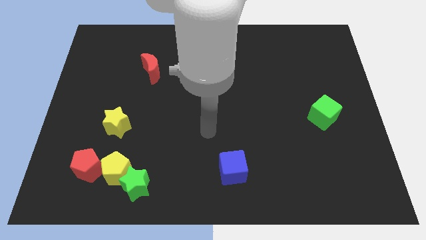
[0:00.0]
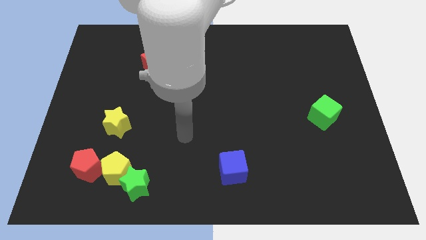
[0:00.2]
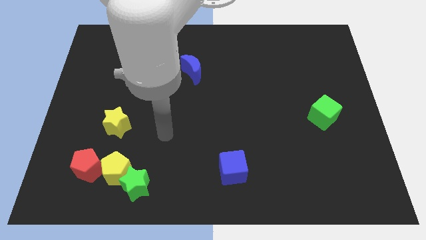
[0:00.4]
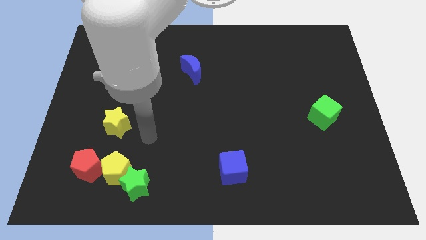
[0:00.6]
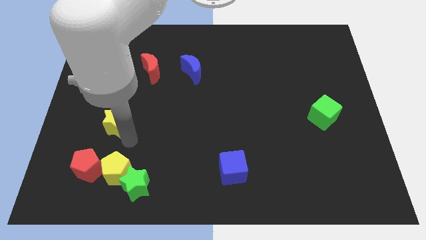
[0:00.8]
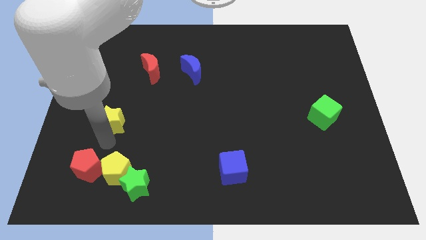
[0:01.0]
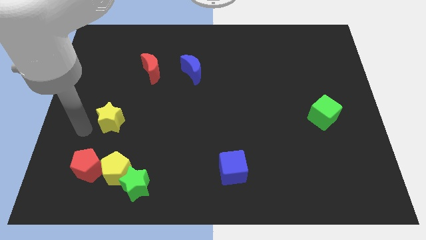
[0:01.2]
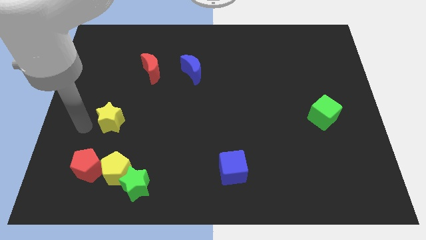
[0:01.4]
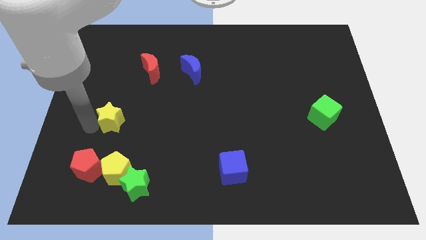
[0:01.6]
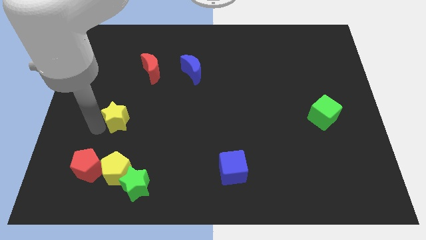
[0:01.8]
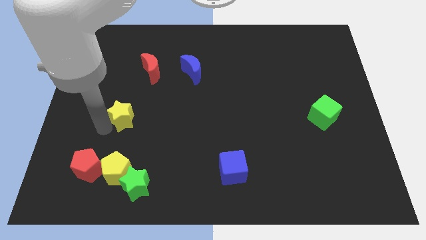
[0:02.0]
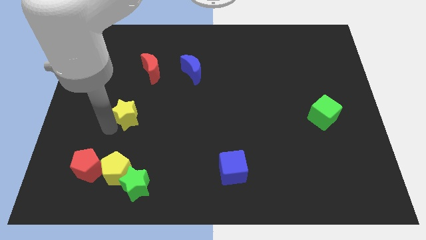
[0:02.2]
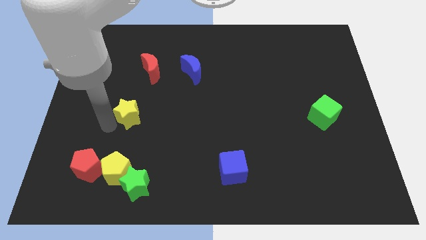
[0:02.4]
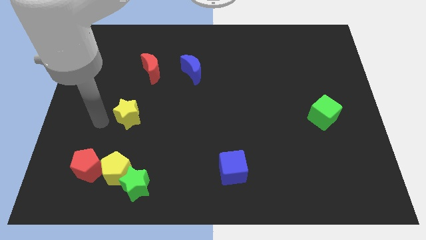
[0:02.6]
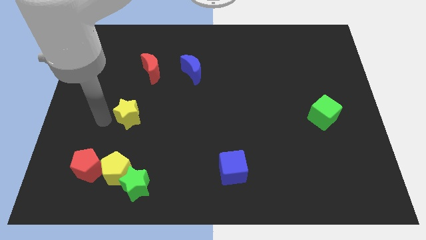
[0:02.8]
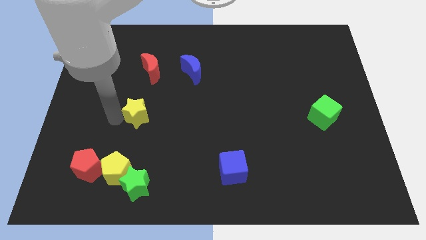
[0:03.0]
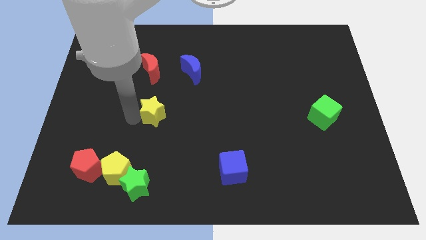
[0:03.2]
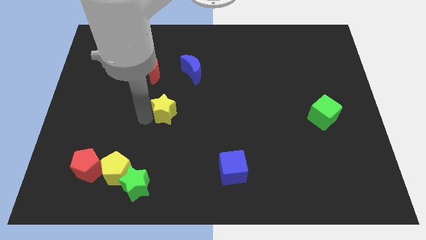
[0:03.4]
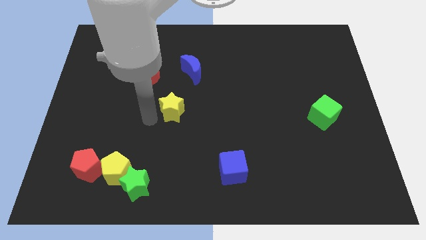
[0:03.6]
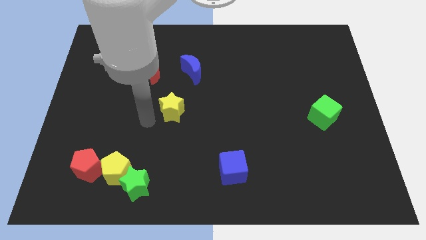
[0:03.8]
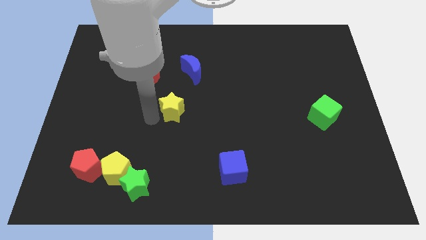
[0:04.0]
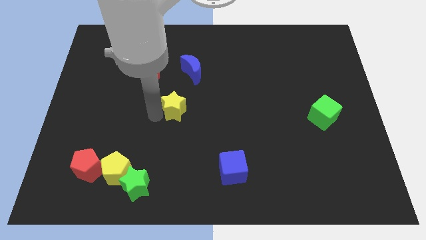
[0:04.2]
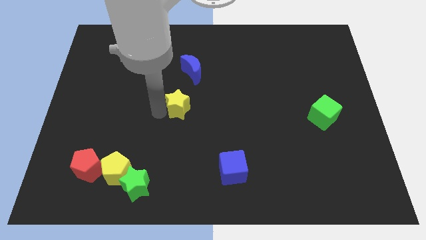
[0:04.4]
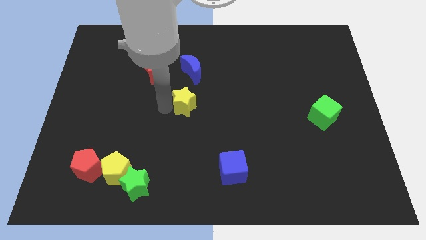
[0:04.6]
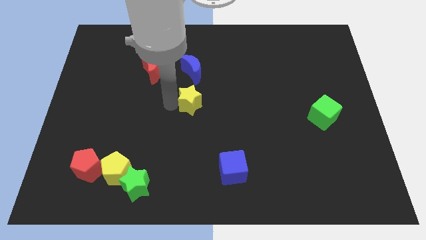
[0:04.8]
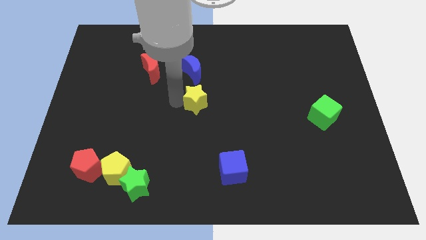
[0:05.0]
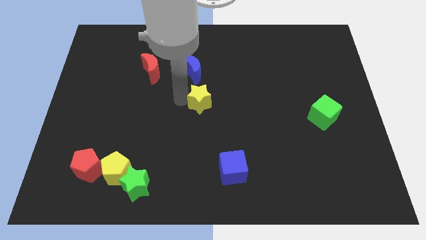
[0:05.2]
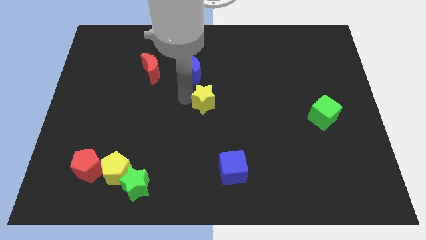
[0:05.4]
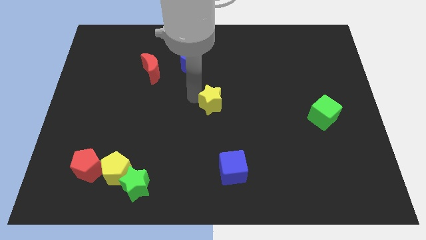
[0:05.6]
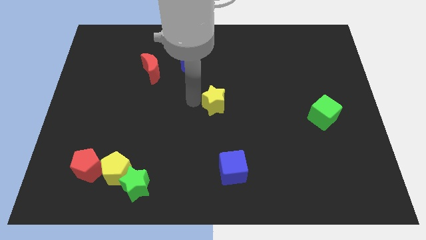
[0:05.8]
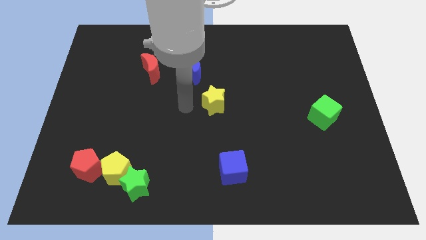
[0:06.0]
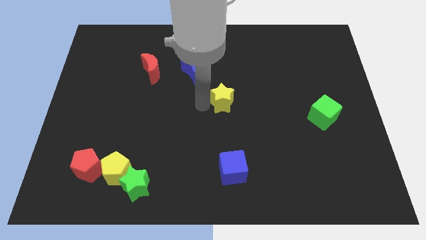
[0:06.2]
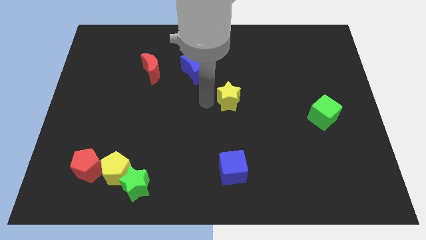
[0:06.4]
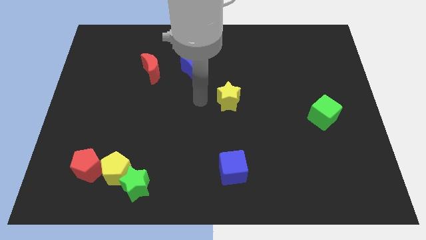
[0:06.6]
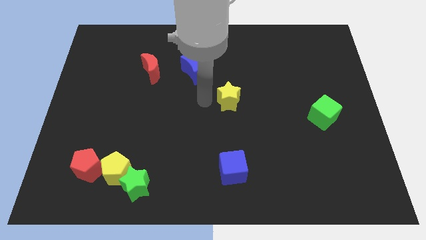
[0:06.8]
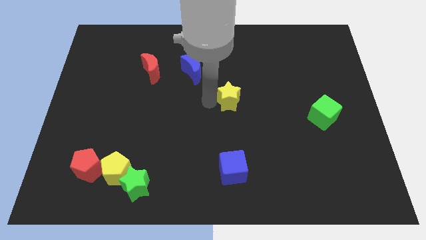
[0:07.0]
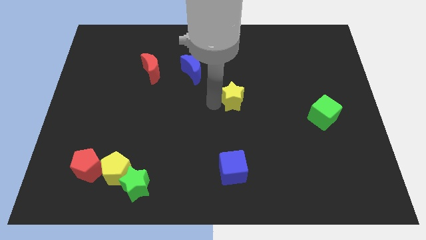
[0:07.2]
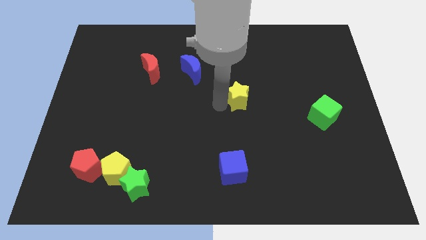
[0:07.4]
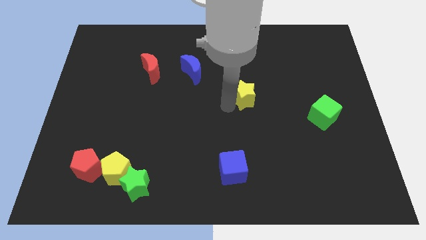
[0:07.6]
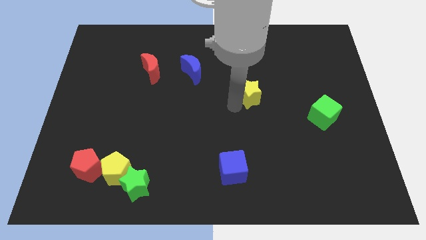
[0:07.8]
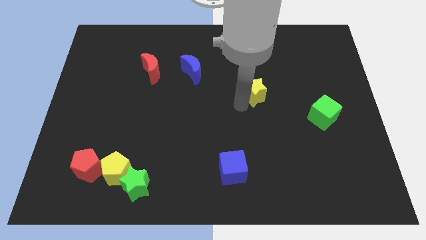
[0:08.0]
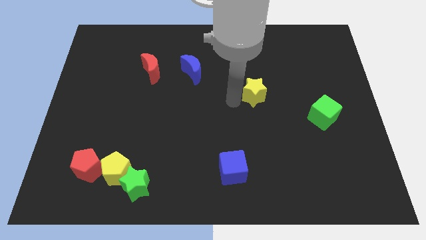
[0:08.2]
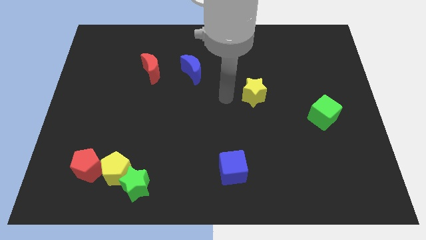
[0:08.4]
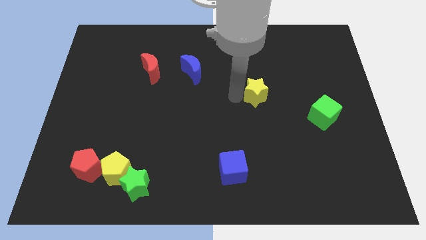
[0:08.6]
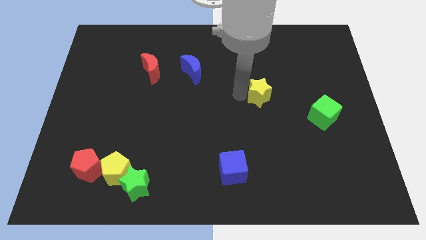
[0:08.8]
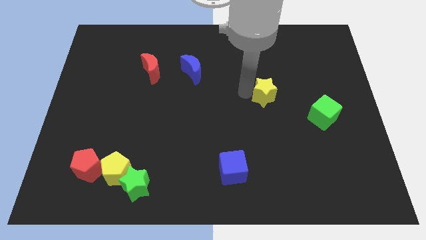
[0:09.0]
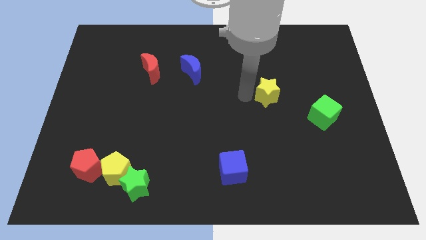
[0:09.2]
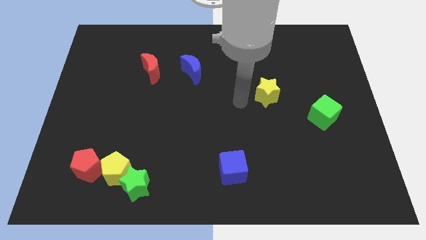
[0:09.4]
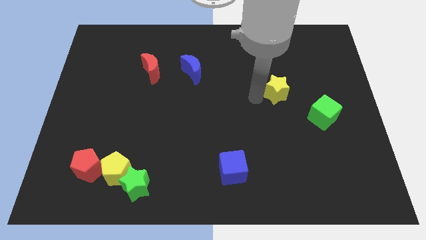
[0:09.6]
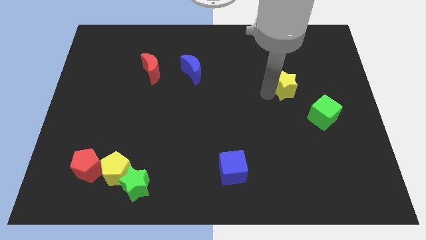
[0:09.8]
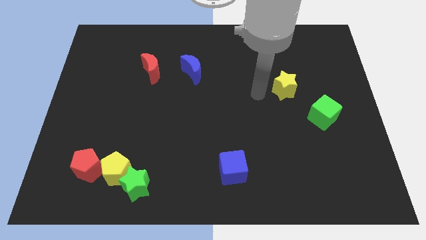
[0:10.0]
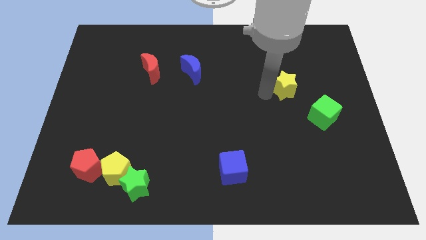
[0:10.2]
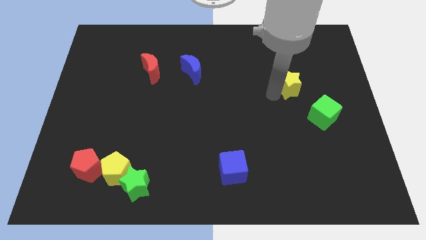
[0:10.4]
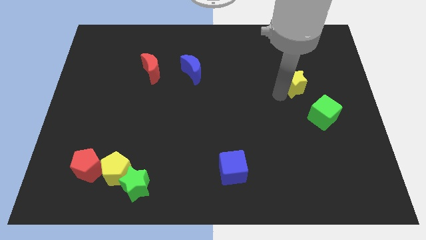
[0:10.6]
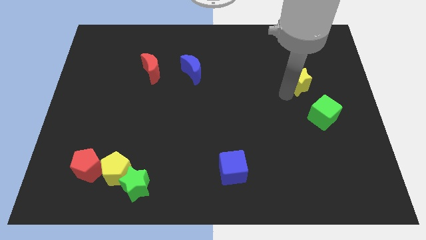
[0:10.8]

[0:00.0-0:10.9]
put the yellow star above the green cube

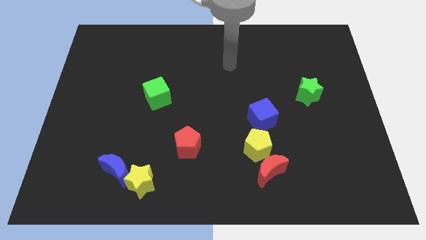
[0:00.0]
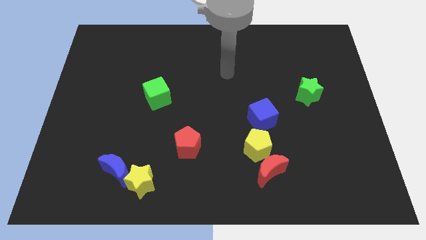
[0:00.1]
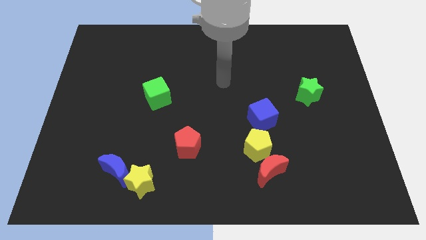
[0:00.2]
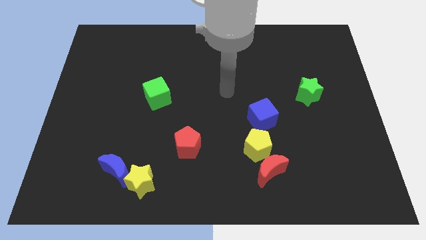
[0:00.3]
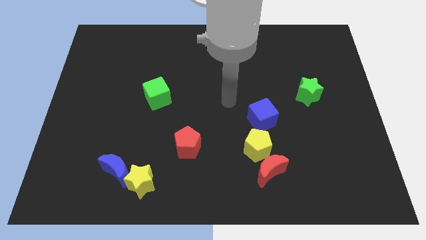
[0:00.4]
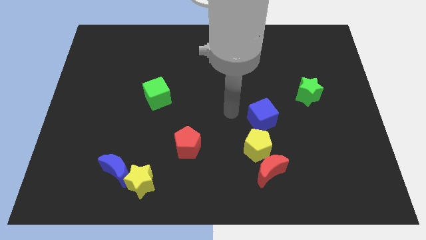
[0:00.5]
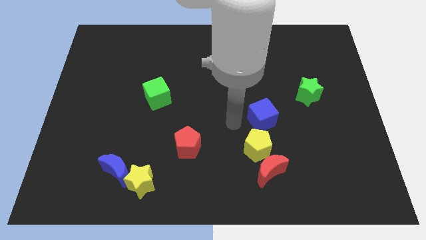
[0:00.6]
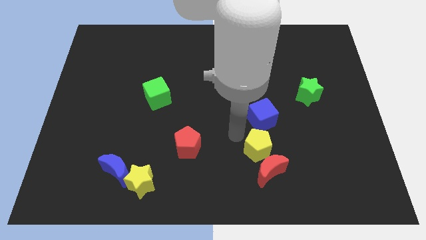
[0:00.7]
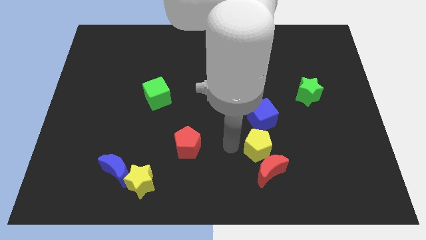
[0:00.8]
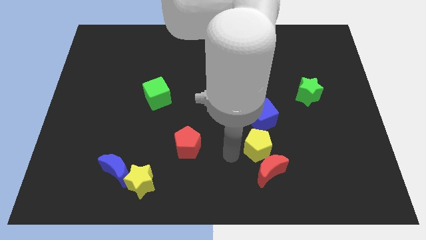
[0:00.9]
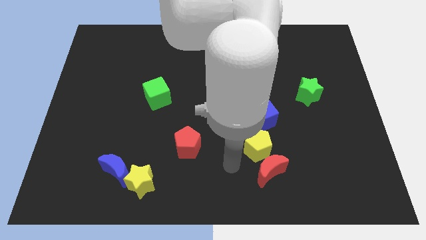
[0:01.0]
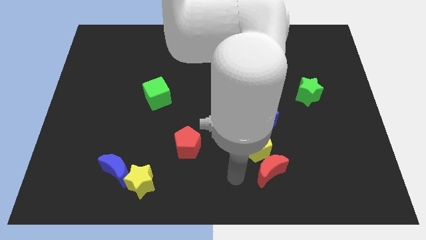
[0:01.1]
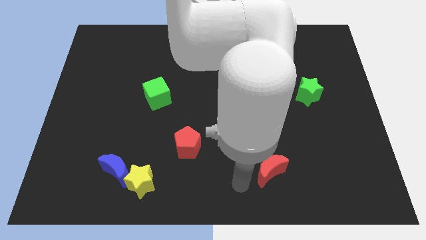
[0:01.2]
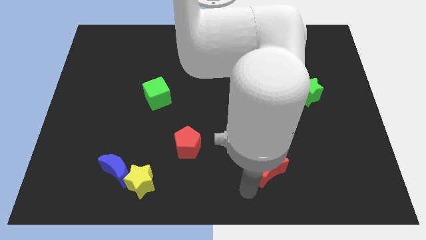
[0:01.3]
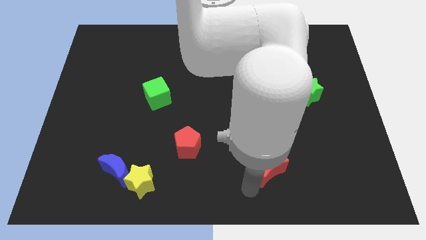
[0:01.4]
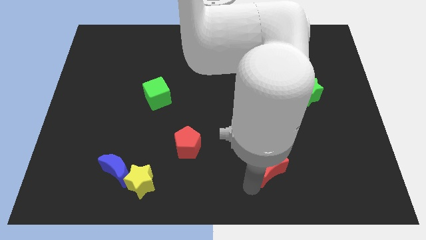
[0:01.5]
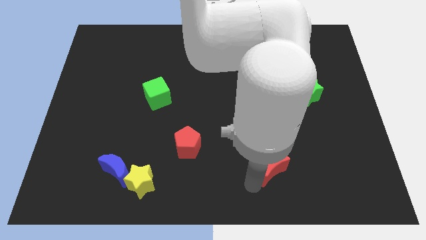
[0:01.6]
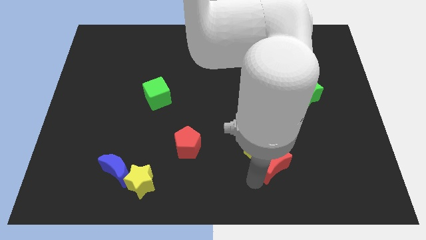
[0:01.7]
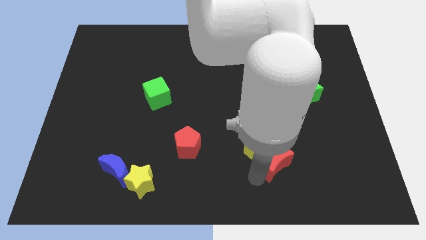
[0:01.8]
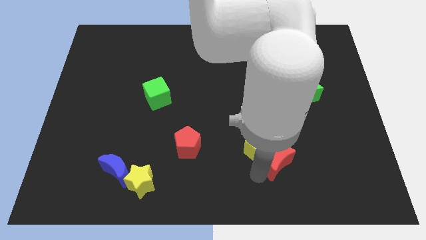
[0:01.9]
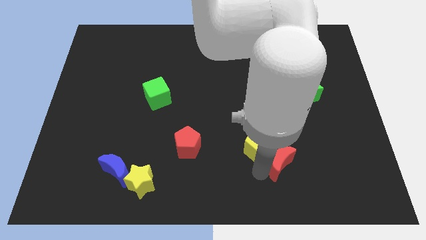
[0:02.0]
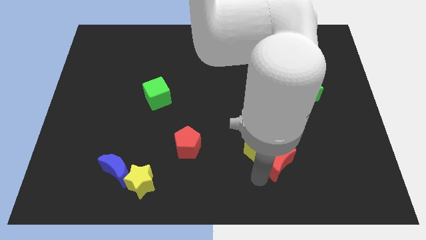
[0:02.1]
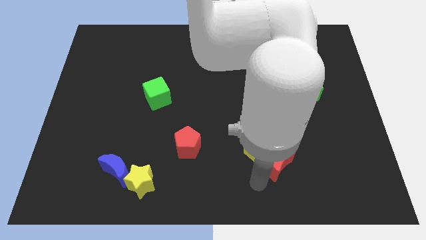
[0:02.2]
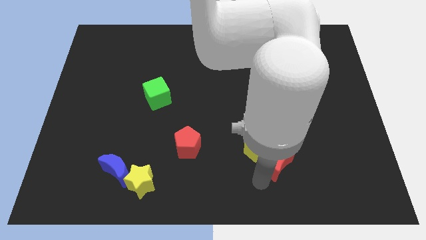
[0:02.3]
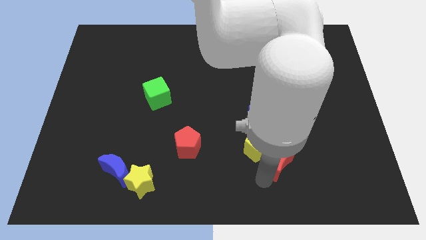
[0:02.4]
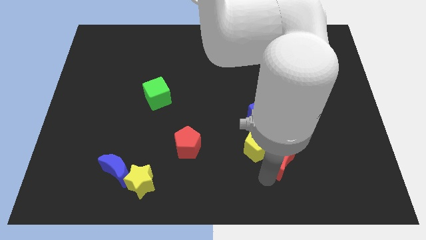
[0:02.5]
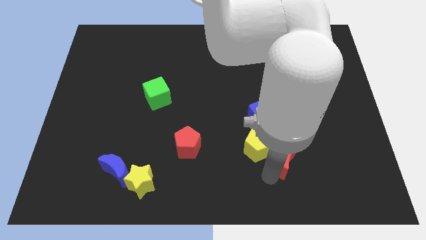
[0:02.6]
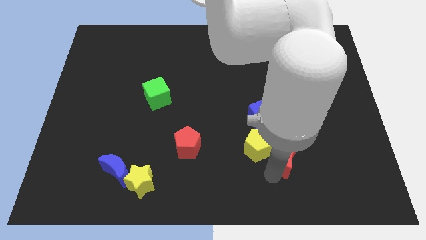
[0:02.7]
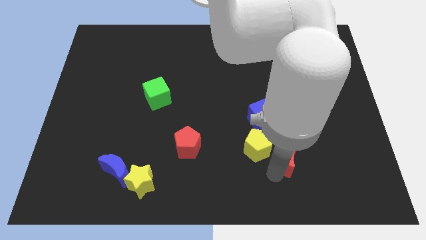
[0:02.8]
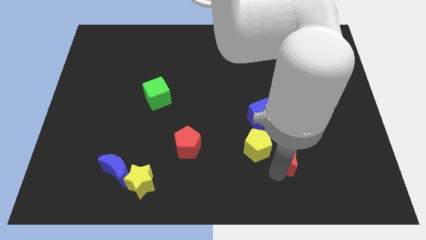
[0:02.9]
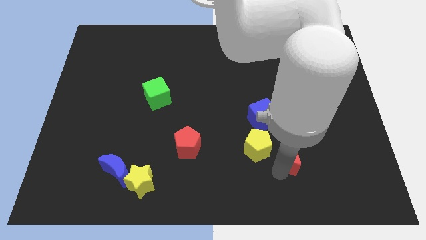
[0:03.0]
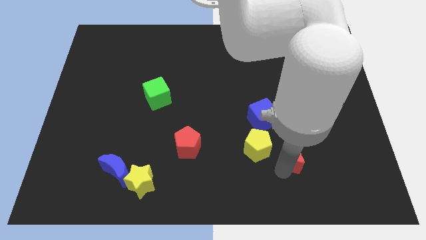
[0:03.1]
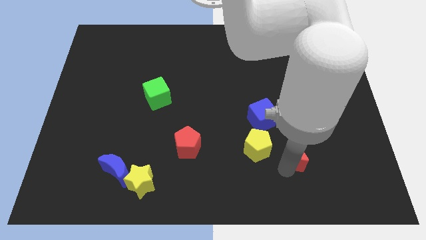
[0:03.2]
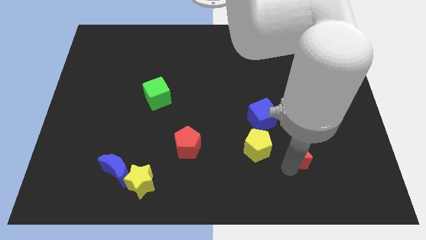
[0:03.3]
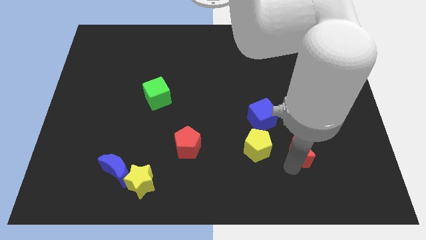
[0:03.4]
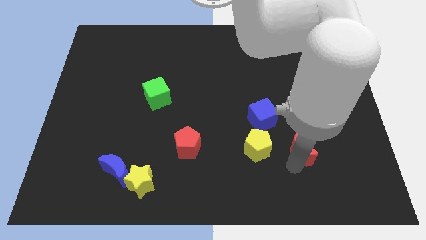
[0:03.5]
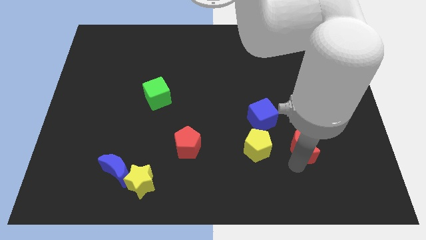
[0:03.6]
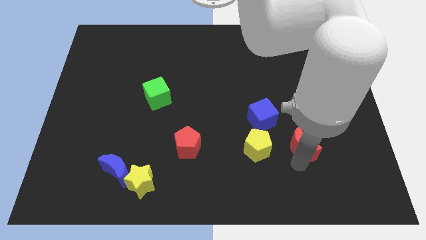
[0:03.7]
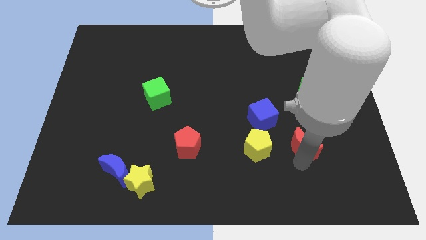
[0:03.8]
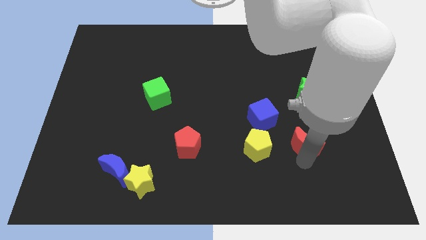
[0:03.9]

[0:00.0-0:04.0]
put the red moon to the bottom side of the green star
